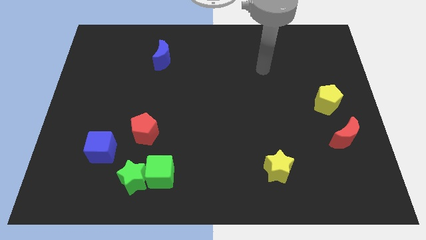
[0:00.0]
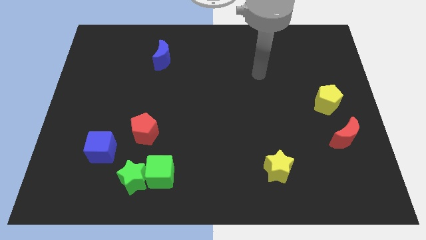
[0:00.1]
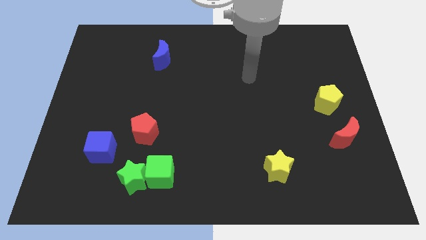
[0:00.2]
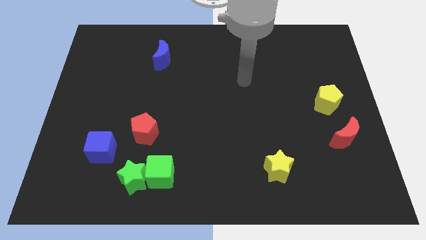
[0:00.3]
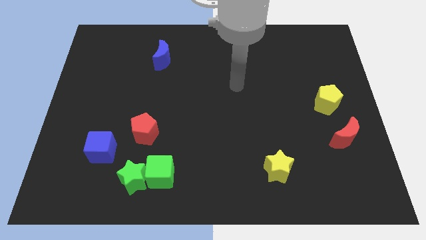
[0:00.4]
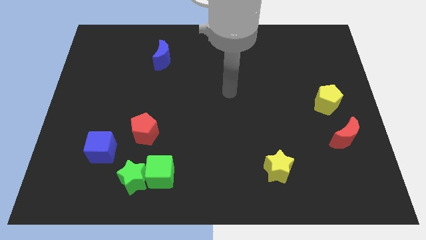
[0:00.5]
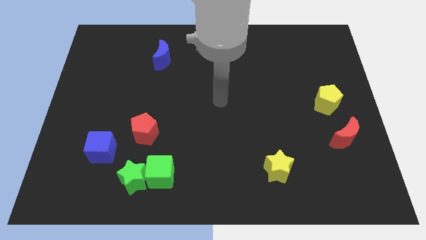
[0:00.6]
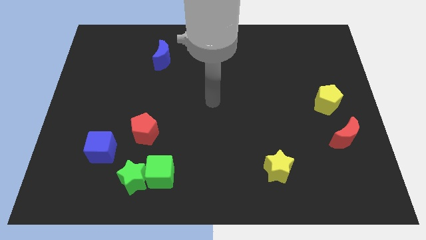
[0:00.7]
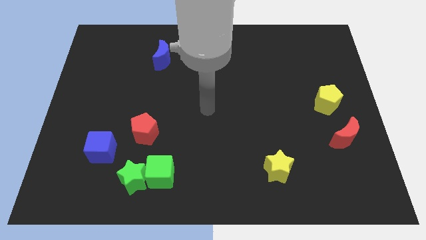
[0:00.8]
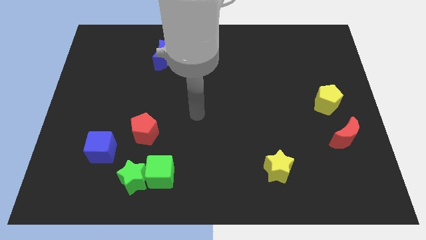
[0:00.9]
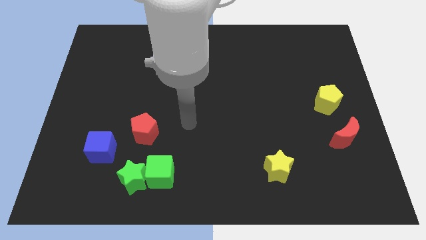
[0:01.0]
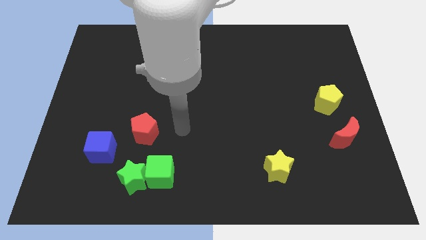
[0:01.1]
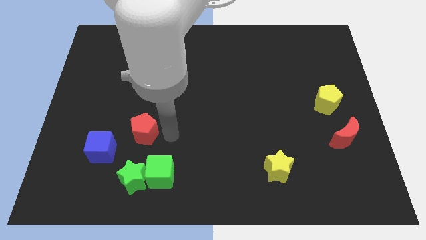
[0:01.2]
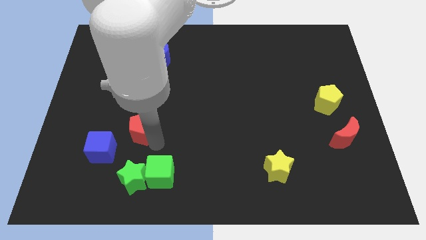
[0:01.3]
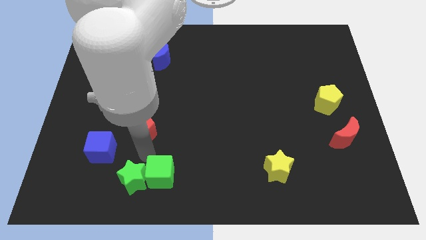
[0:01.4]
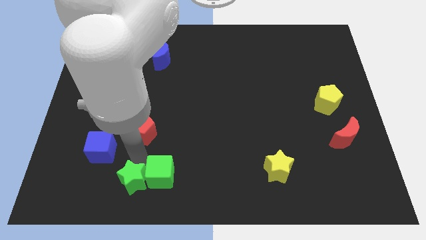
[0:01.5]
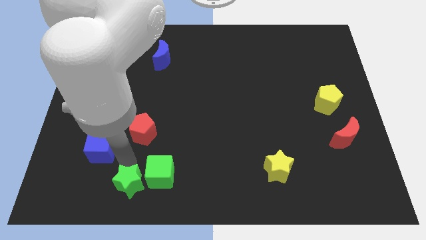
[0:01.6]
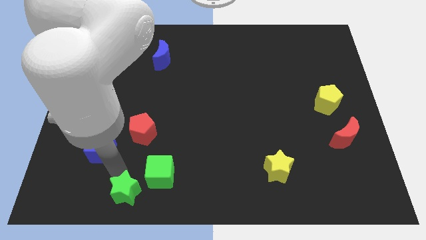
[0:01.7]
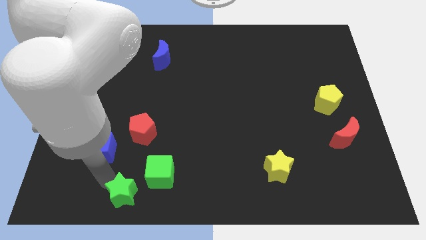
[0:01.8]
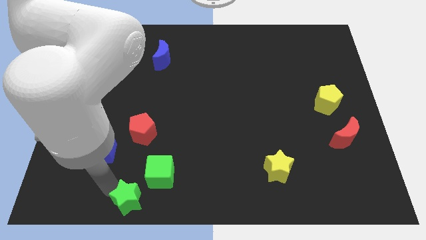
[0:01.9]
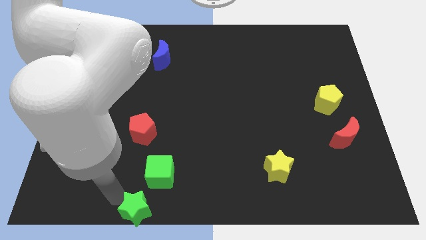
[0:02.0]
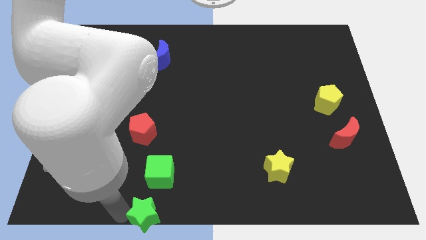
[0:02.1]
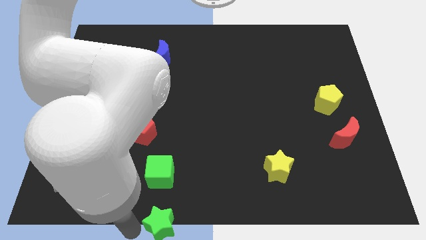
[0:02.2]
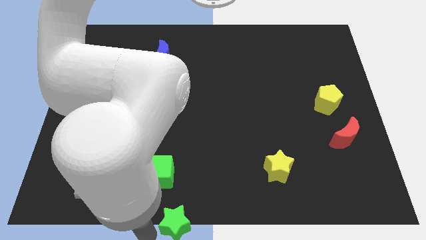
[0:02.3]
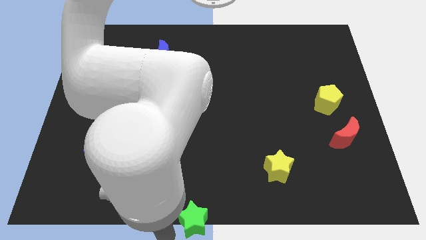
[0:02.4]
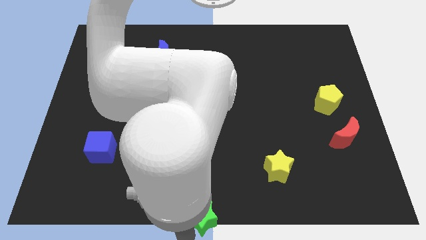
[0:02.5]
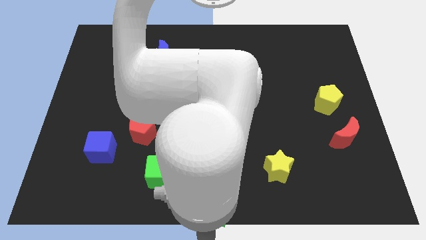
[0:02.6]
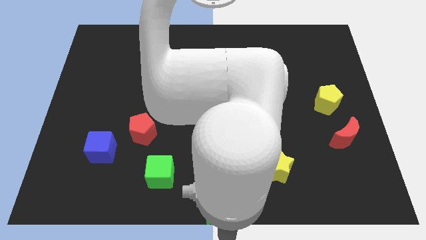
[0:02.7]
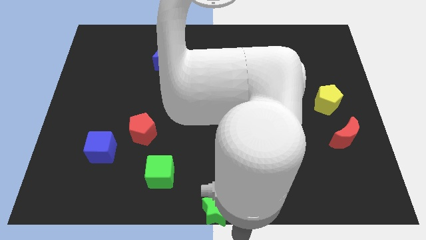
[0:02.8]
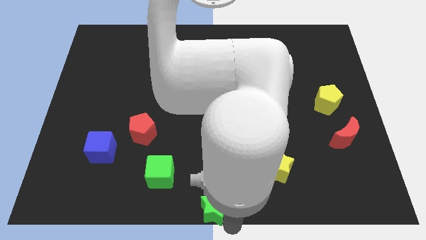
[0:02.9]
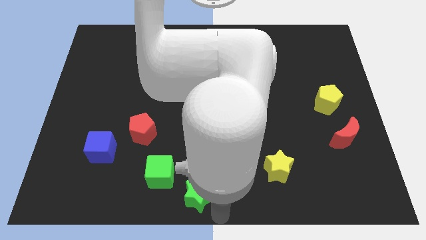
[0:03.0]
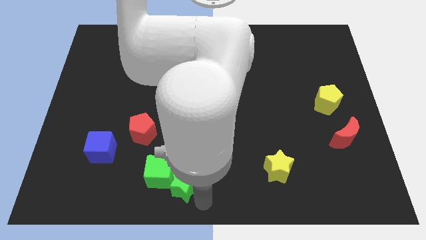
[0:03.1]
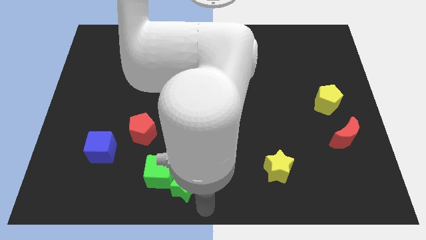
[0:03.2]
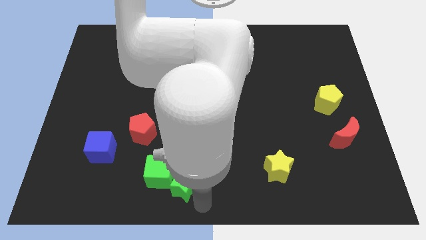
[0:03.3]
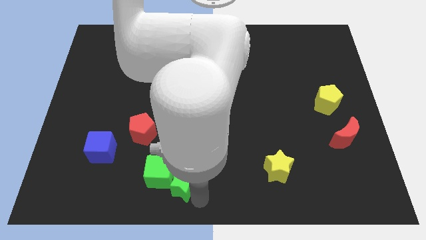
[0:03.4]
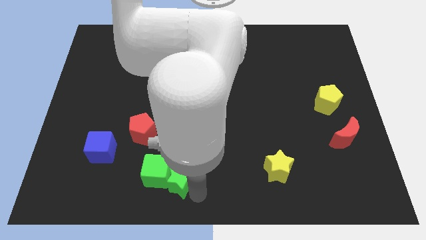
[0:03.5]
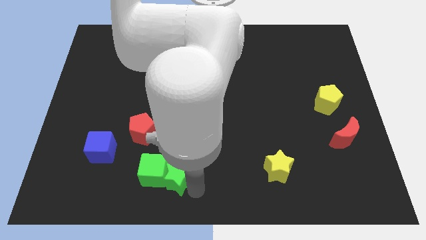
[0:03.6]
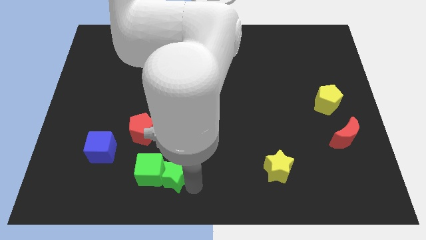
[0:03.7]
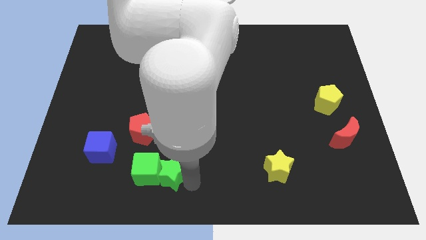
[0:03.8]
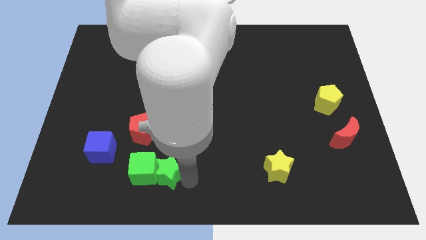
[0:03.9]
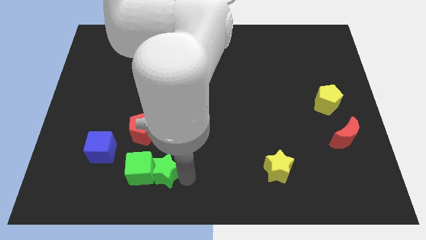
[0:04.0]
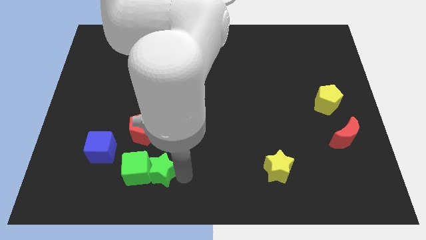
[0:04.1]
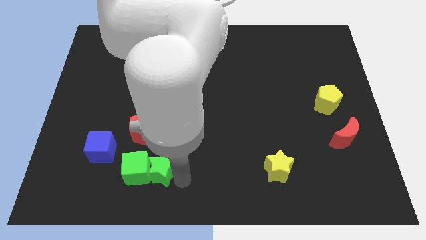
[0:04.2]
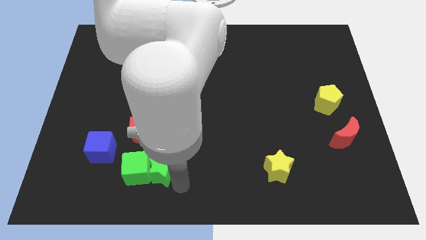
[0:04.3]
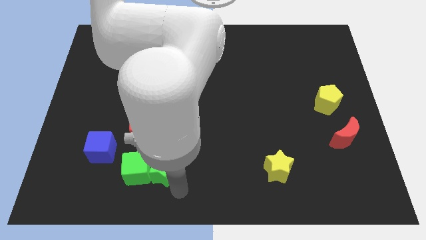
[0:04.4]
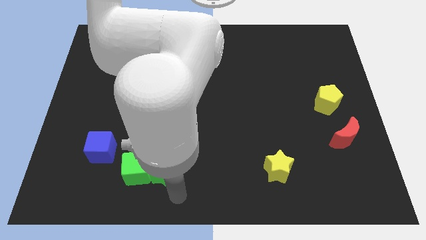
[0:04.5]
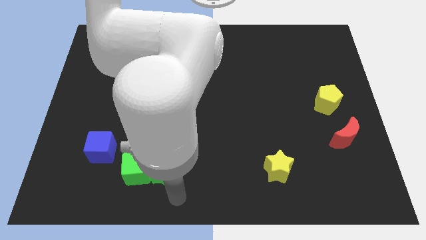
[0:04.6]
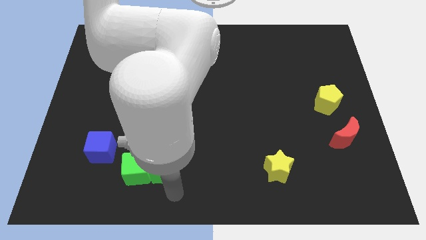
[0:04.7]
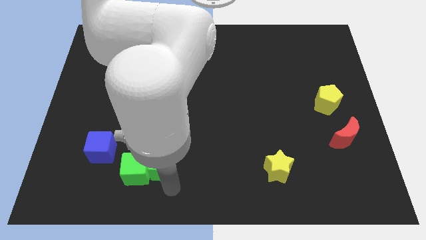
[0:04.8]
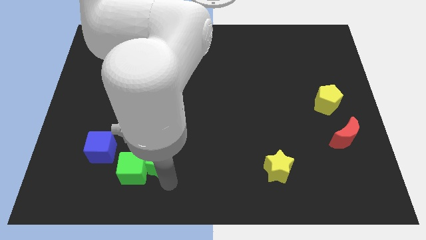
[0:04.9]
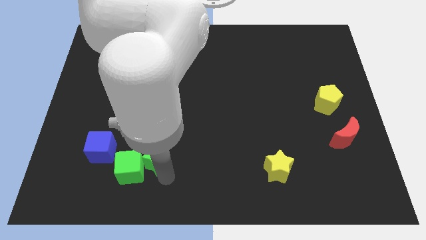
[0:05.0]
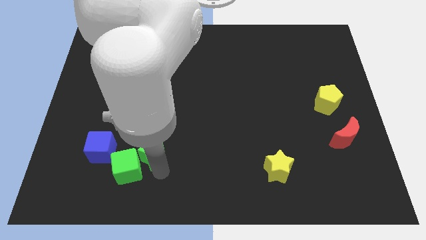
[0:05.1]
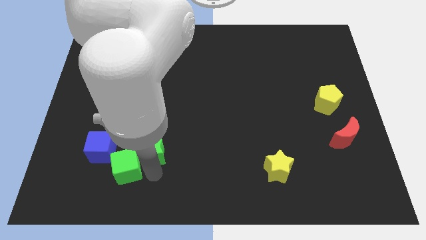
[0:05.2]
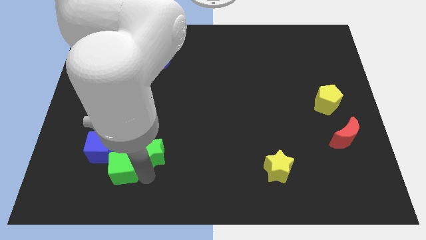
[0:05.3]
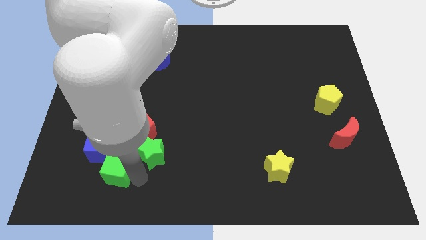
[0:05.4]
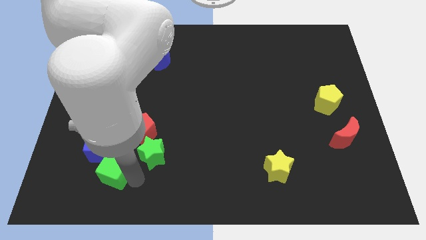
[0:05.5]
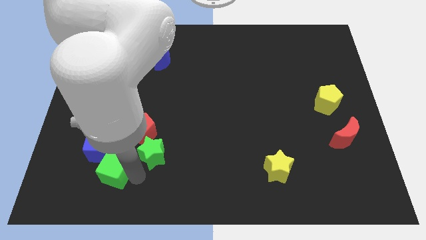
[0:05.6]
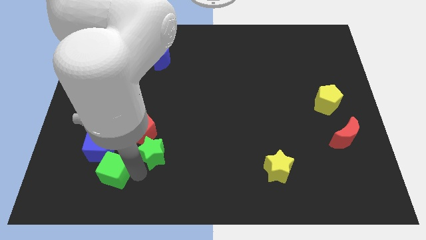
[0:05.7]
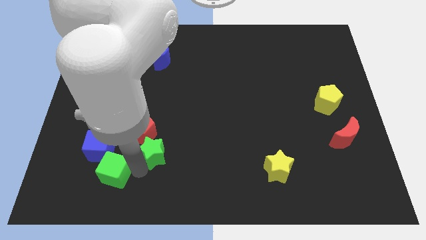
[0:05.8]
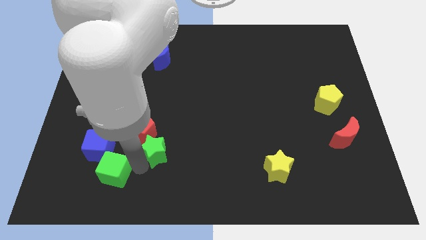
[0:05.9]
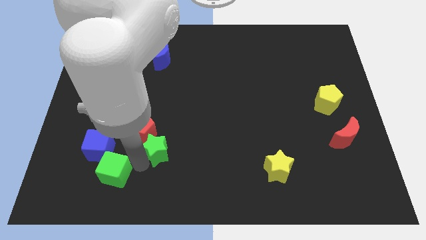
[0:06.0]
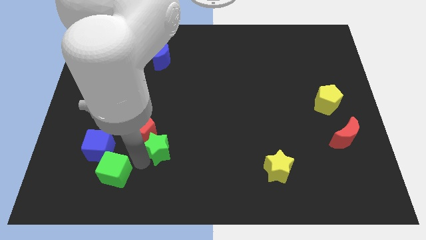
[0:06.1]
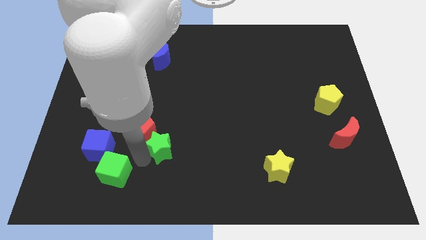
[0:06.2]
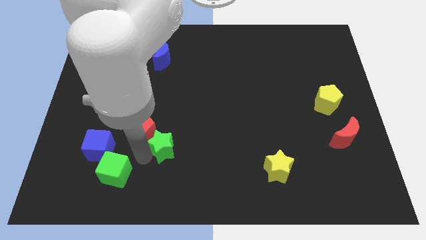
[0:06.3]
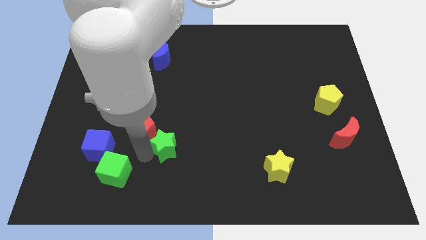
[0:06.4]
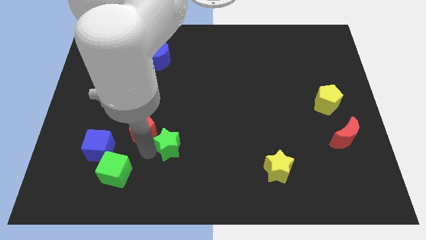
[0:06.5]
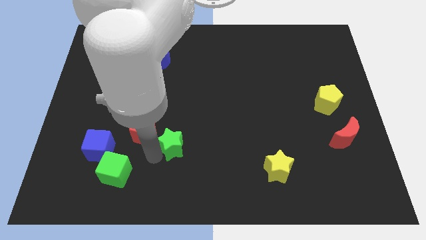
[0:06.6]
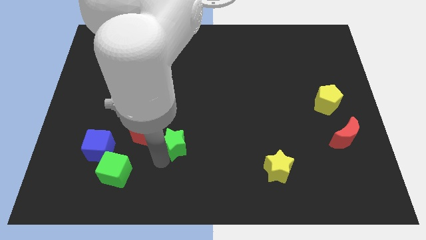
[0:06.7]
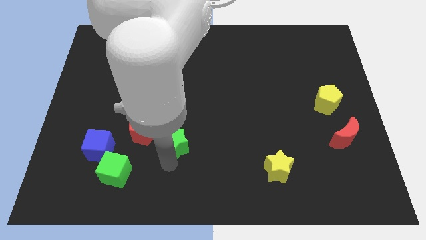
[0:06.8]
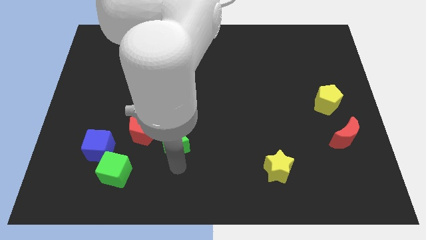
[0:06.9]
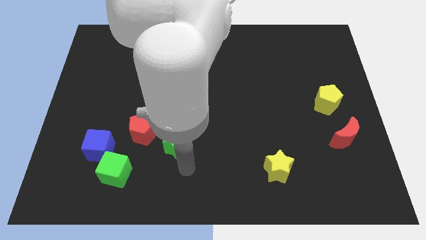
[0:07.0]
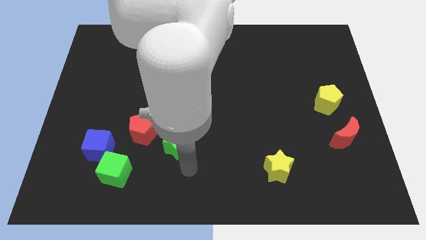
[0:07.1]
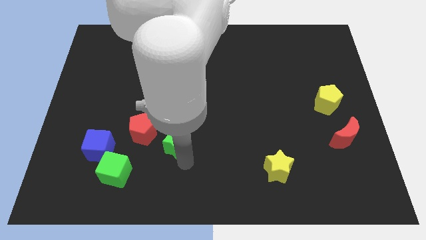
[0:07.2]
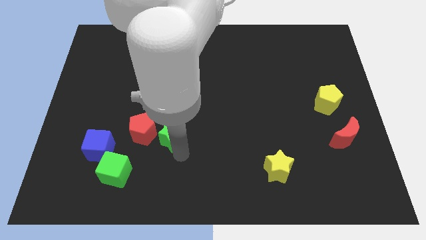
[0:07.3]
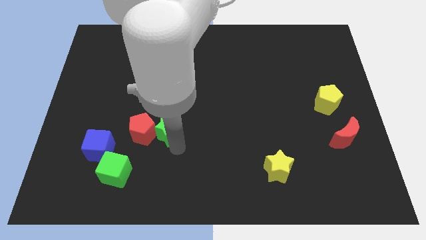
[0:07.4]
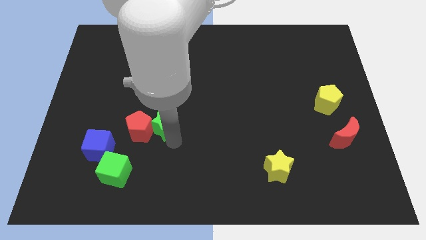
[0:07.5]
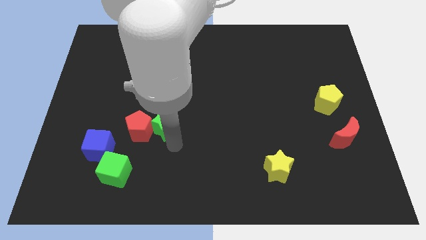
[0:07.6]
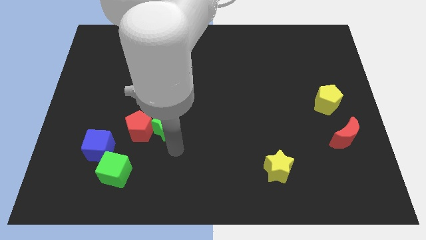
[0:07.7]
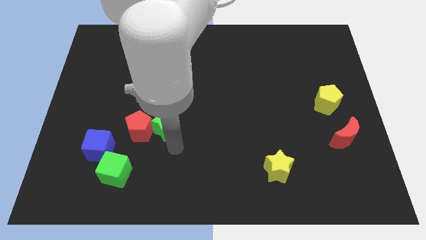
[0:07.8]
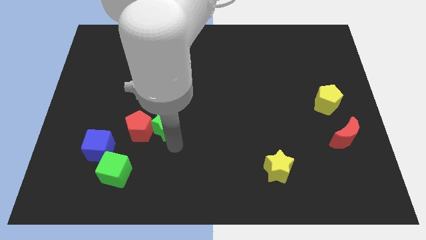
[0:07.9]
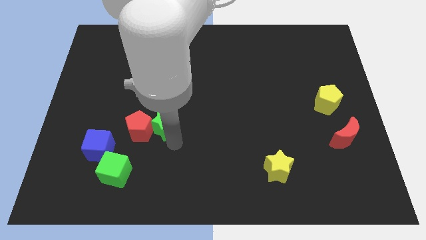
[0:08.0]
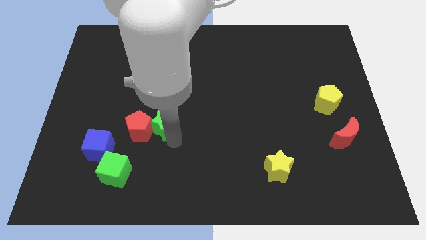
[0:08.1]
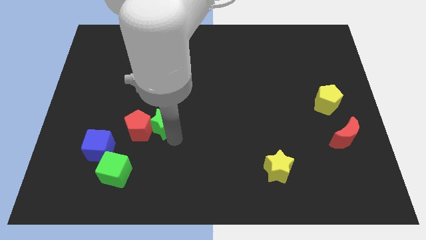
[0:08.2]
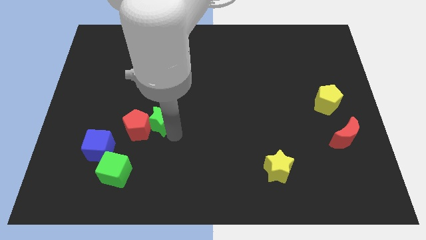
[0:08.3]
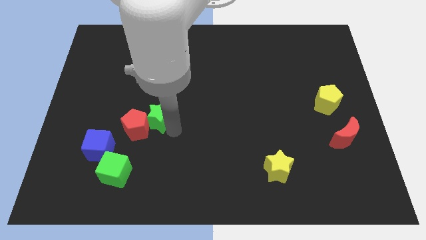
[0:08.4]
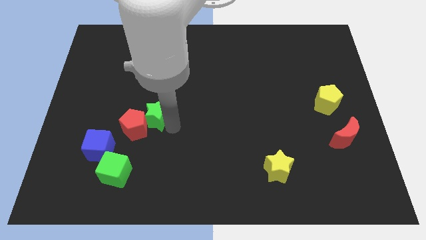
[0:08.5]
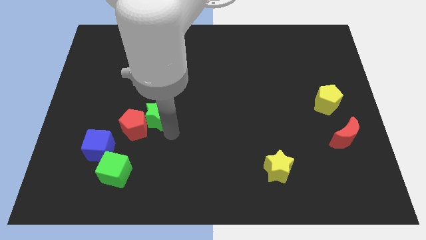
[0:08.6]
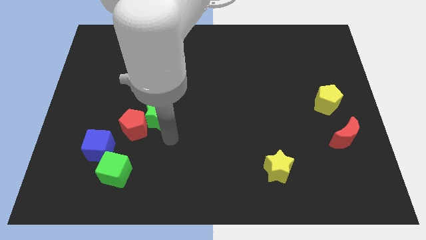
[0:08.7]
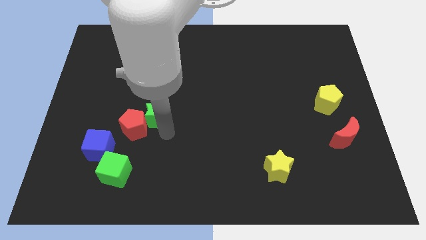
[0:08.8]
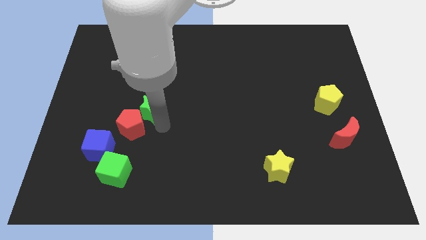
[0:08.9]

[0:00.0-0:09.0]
slide the green star to the top side of the red pentagon
